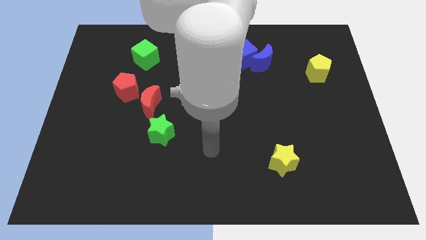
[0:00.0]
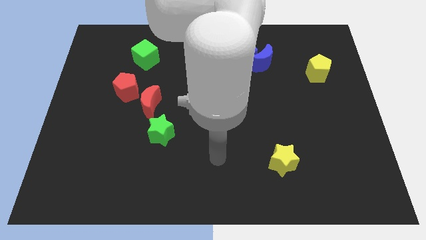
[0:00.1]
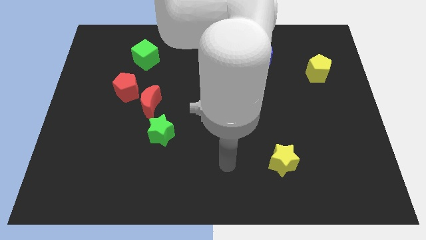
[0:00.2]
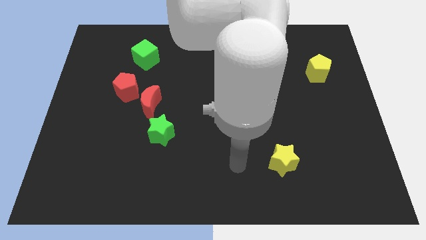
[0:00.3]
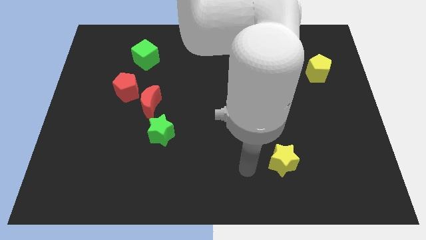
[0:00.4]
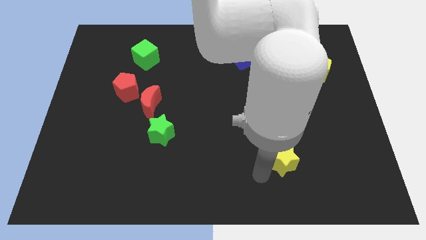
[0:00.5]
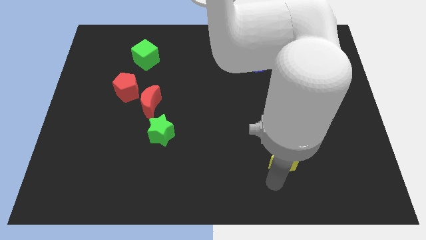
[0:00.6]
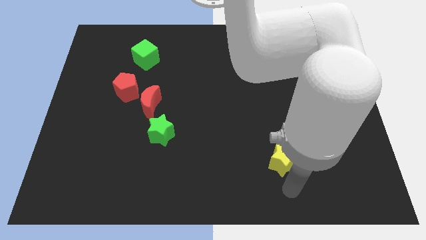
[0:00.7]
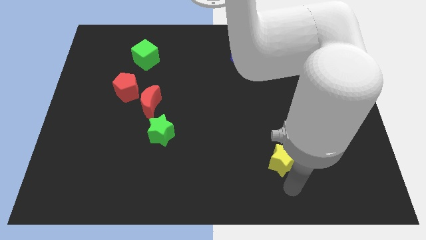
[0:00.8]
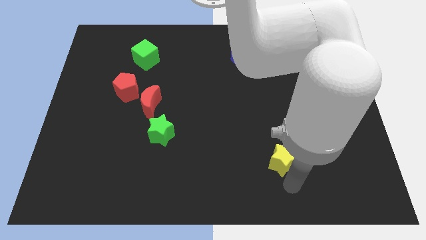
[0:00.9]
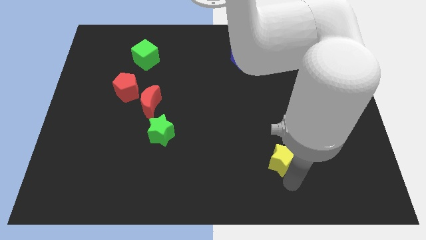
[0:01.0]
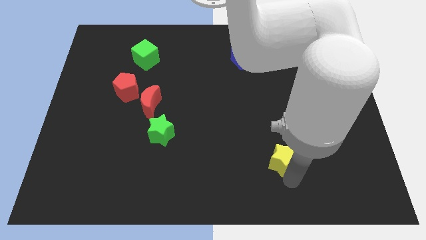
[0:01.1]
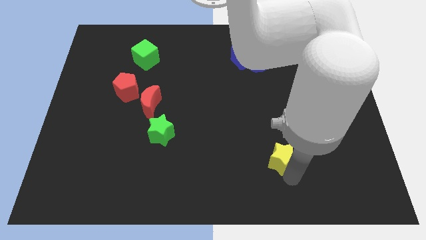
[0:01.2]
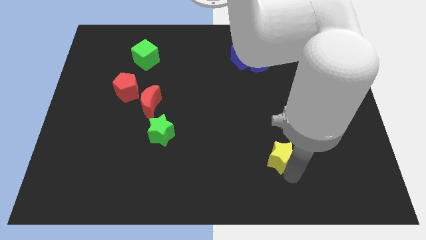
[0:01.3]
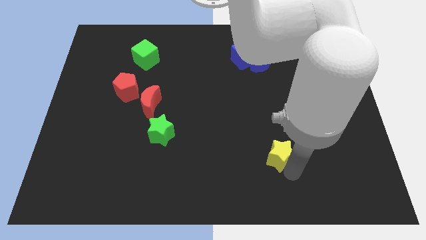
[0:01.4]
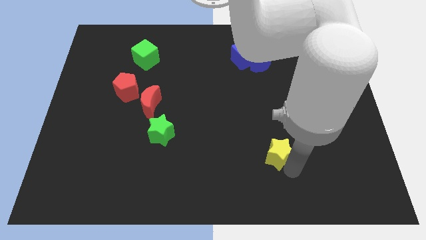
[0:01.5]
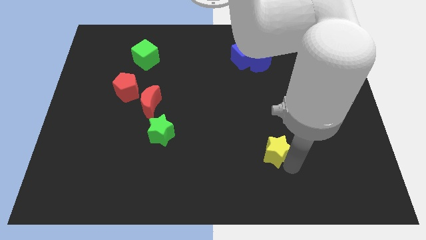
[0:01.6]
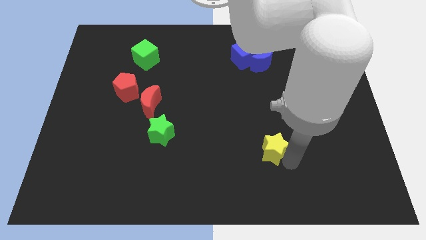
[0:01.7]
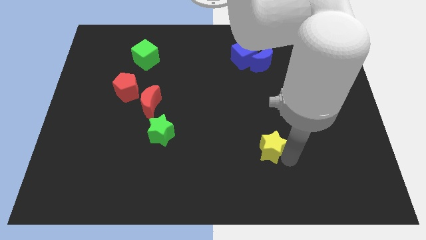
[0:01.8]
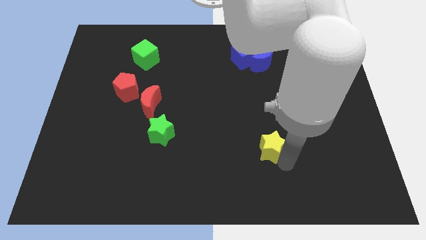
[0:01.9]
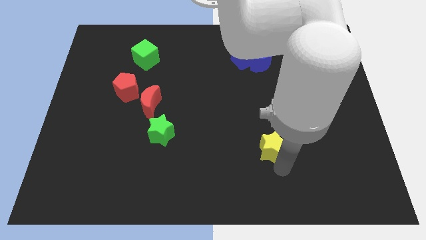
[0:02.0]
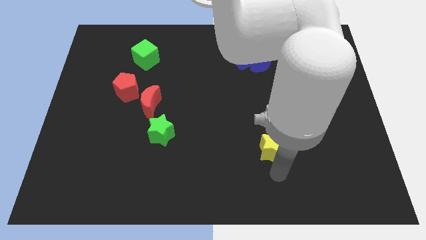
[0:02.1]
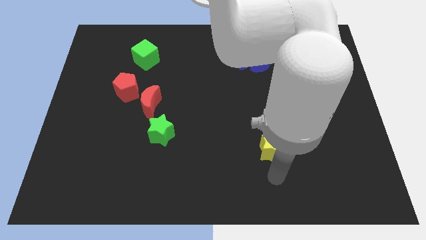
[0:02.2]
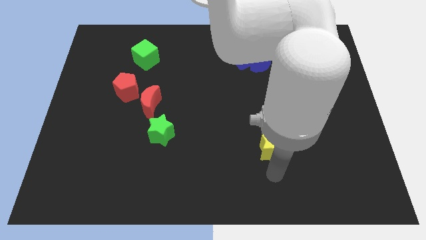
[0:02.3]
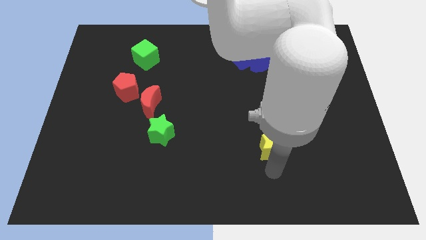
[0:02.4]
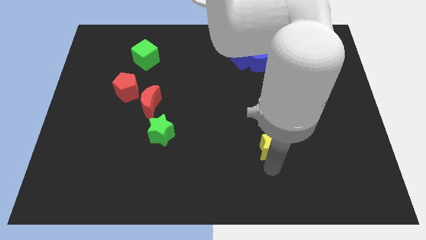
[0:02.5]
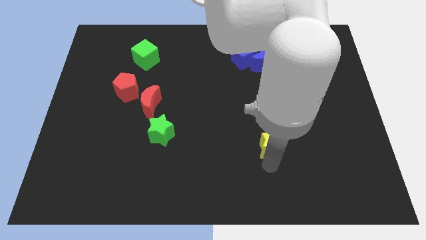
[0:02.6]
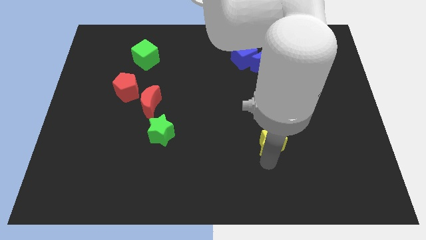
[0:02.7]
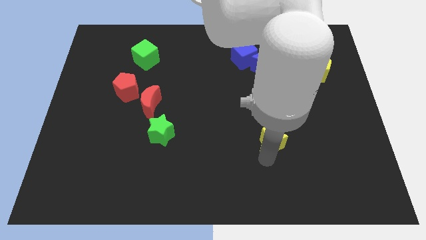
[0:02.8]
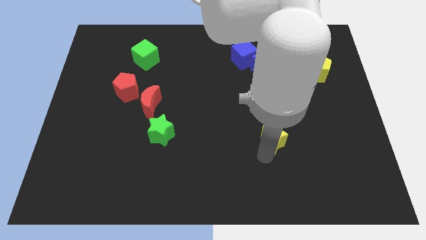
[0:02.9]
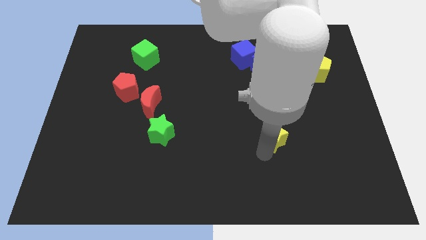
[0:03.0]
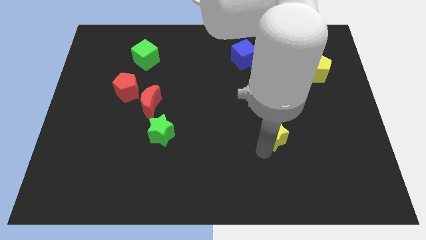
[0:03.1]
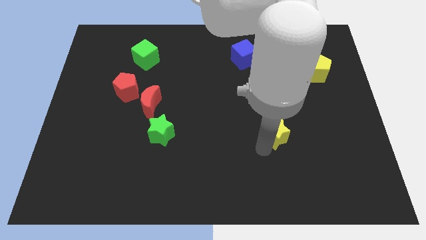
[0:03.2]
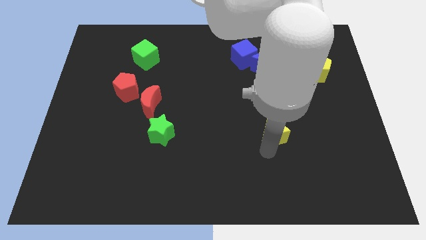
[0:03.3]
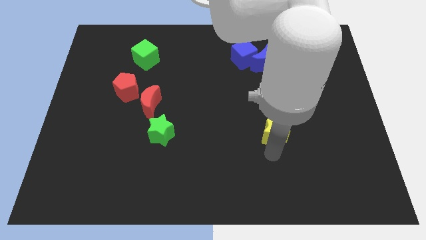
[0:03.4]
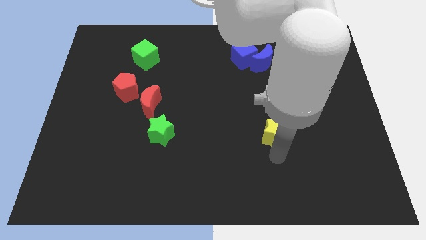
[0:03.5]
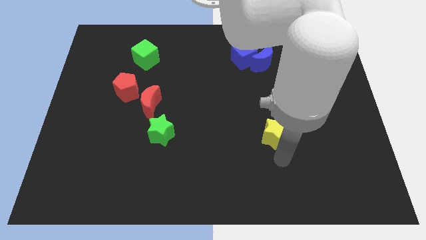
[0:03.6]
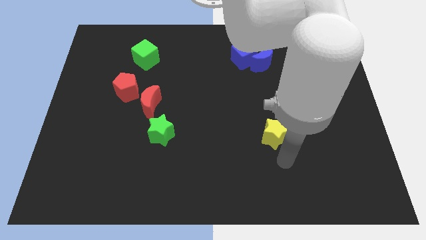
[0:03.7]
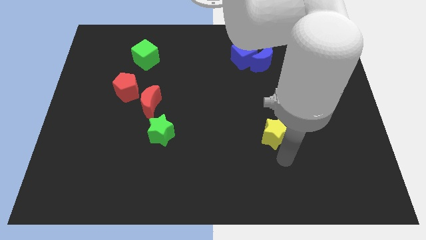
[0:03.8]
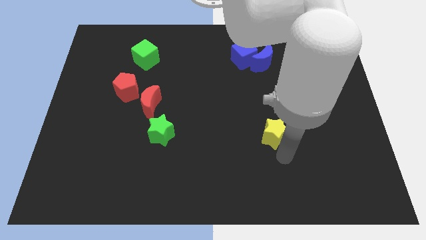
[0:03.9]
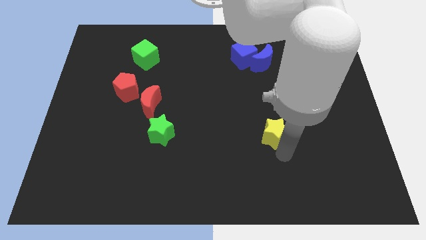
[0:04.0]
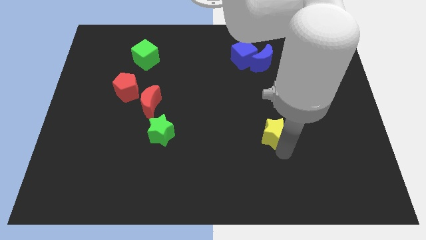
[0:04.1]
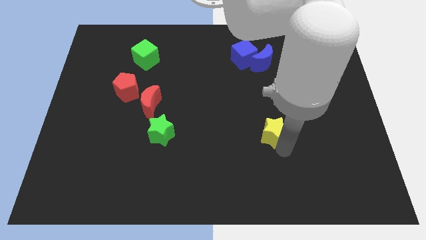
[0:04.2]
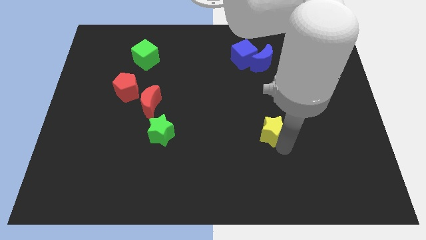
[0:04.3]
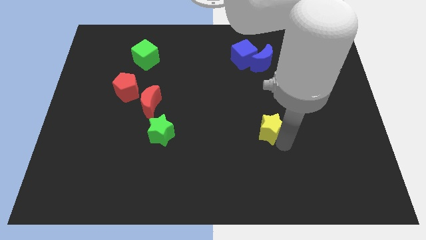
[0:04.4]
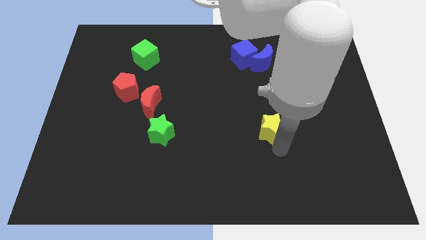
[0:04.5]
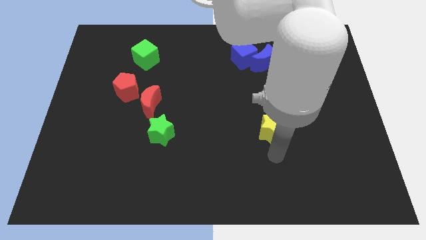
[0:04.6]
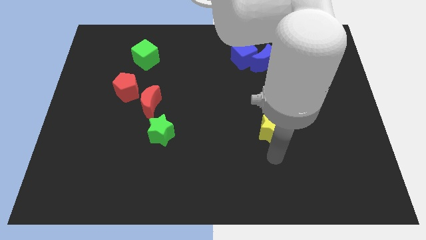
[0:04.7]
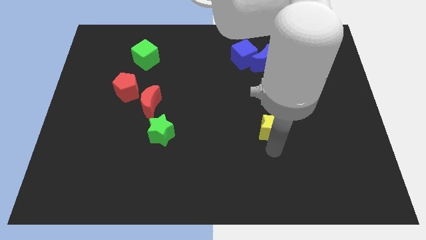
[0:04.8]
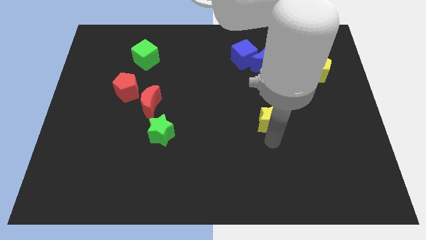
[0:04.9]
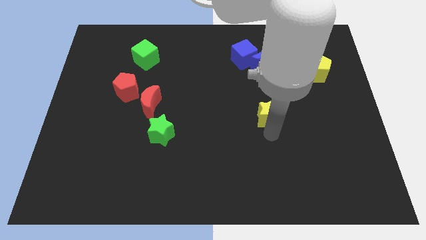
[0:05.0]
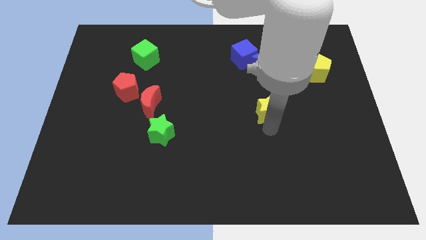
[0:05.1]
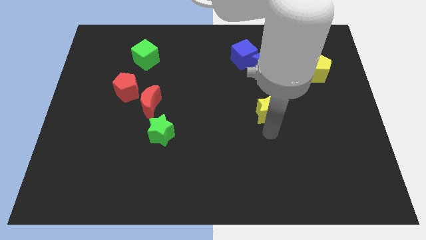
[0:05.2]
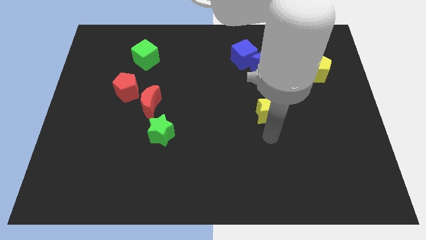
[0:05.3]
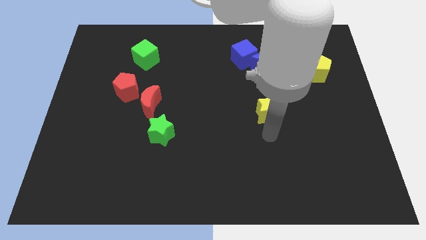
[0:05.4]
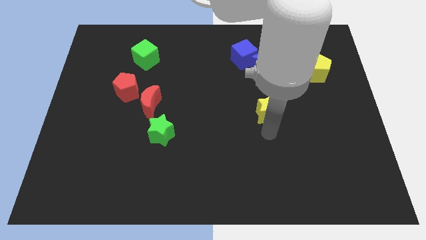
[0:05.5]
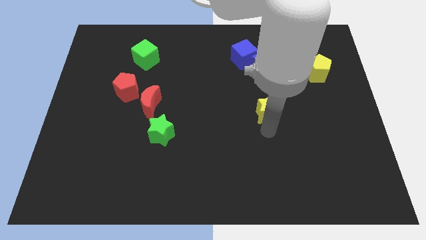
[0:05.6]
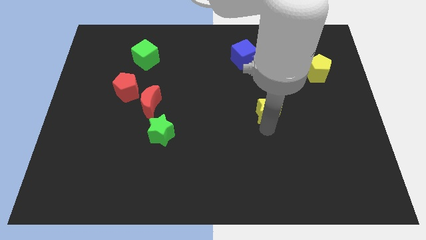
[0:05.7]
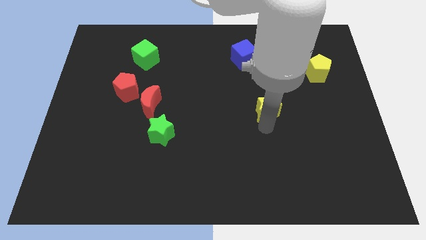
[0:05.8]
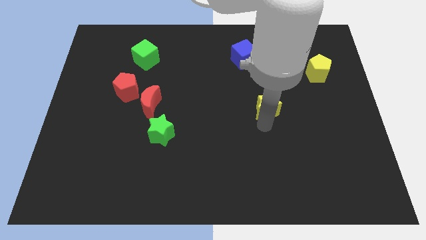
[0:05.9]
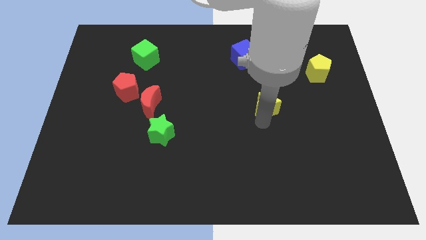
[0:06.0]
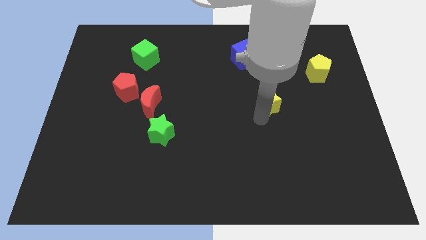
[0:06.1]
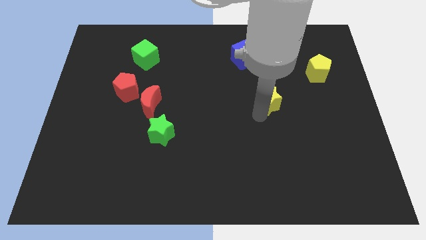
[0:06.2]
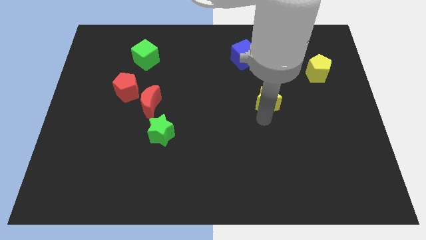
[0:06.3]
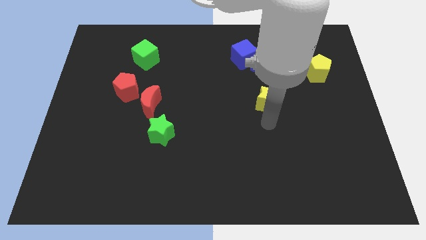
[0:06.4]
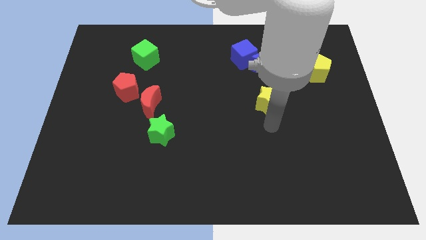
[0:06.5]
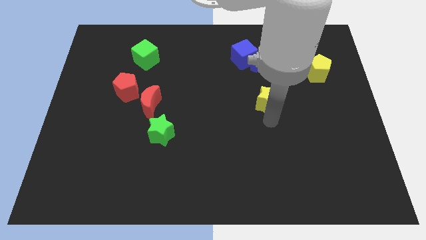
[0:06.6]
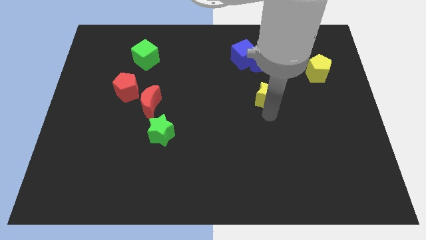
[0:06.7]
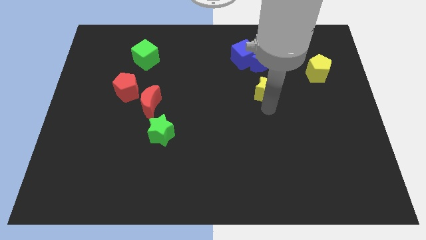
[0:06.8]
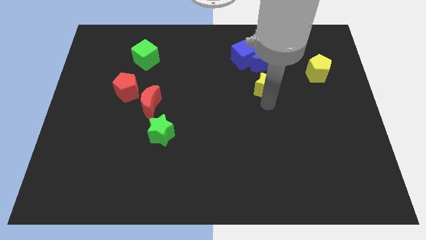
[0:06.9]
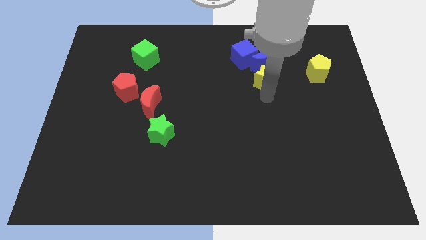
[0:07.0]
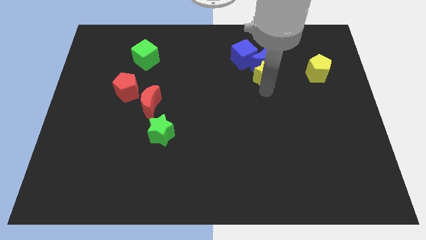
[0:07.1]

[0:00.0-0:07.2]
push the yellow star next to the blue moon
